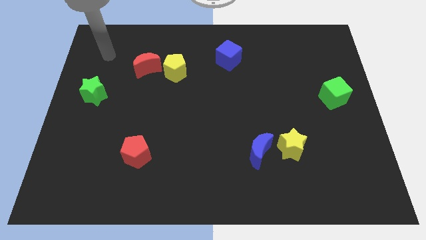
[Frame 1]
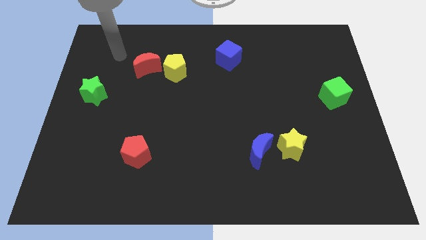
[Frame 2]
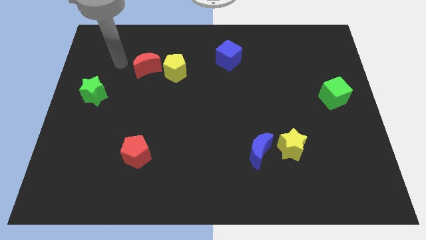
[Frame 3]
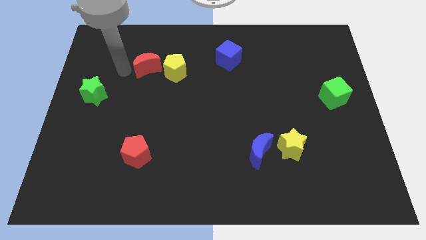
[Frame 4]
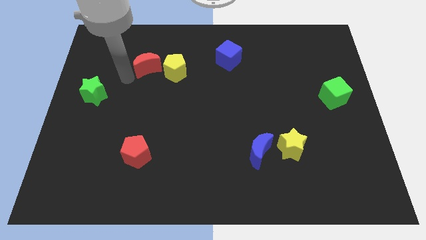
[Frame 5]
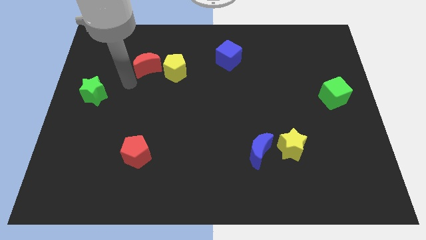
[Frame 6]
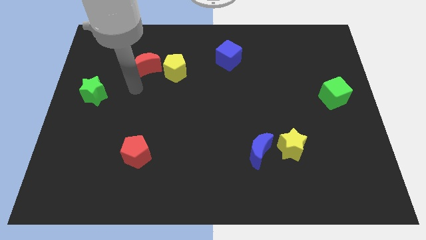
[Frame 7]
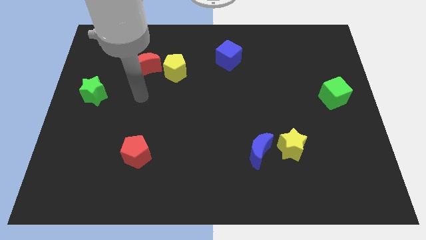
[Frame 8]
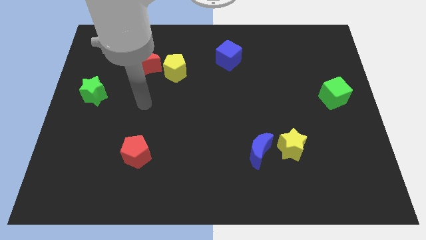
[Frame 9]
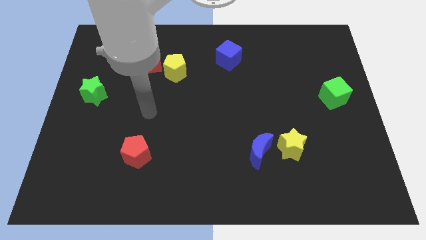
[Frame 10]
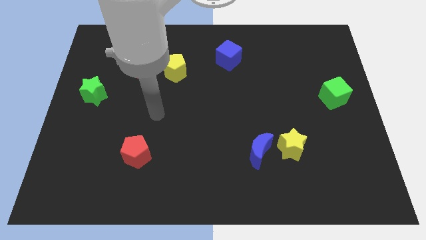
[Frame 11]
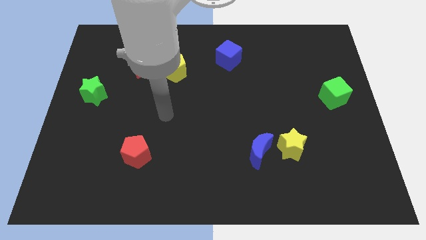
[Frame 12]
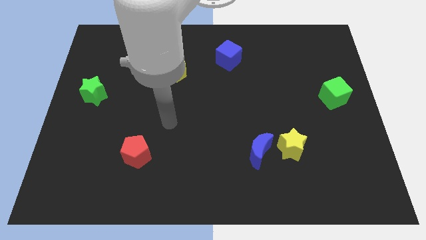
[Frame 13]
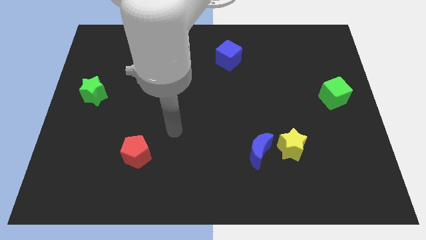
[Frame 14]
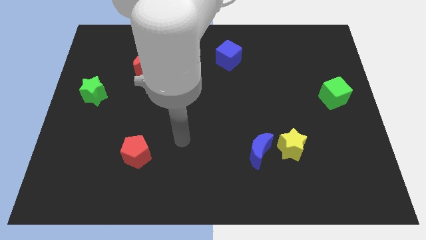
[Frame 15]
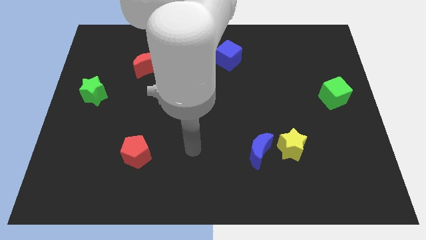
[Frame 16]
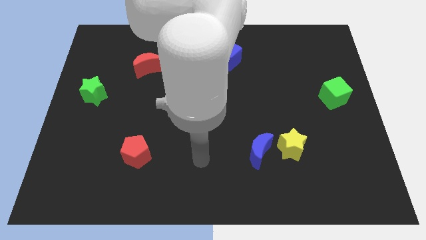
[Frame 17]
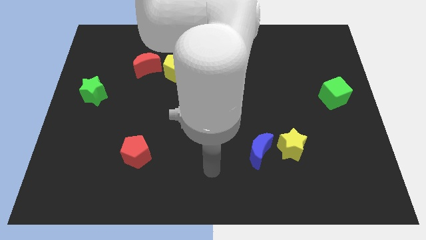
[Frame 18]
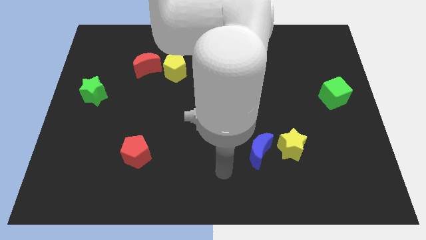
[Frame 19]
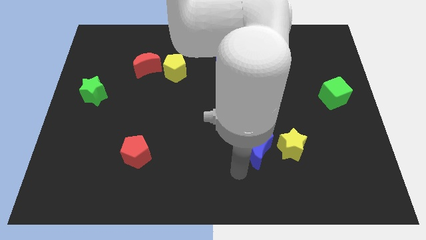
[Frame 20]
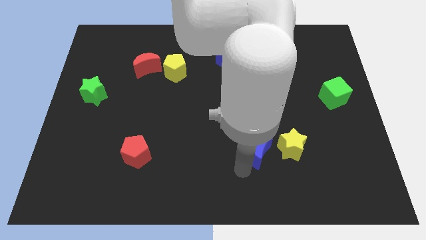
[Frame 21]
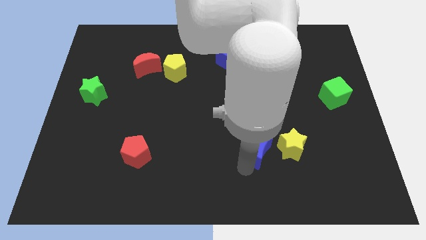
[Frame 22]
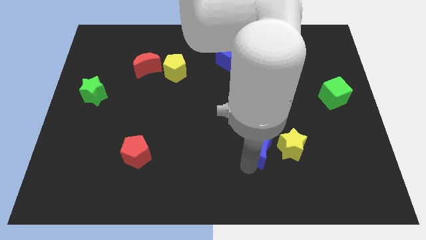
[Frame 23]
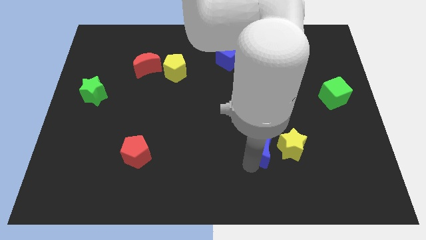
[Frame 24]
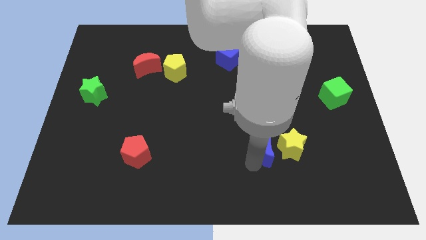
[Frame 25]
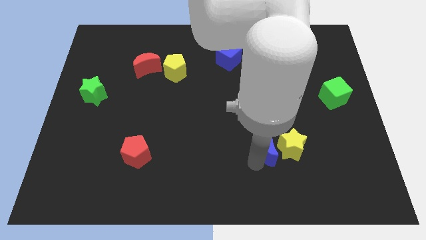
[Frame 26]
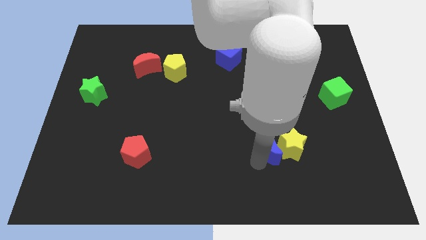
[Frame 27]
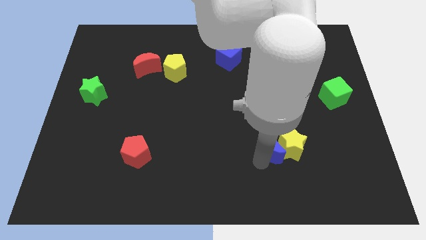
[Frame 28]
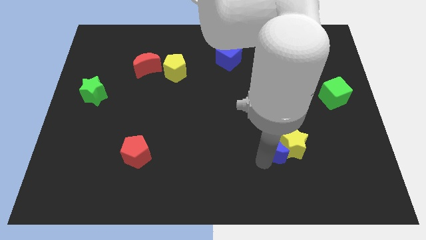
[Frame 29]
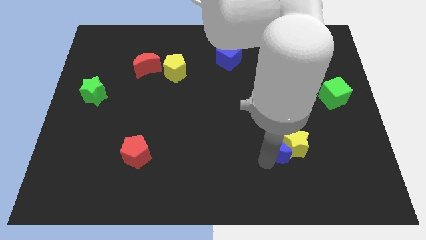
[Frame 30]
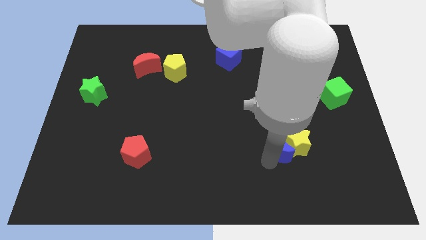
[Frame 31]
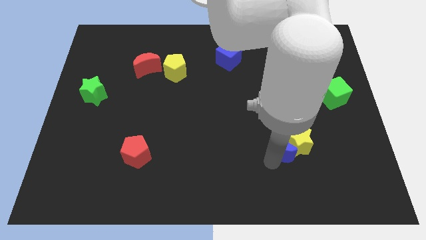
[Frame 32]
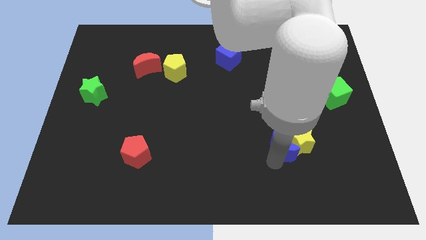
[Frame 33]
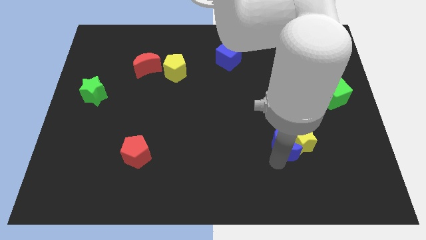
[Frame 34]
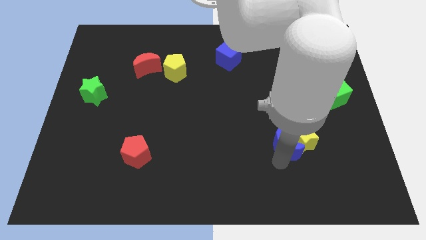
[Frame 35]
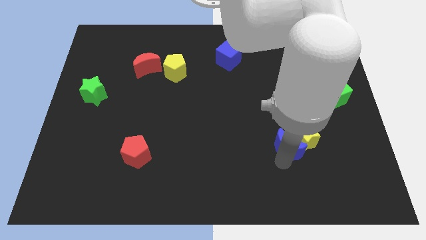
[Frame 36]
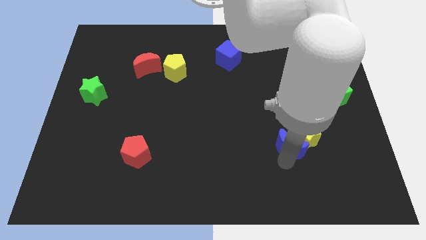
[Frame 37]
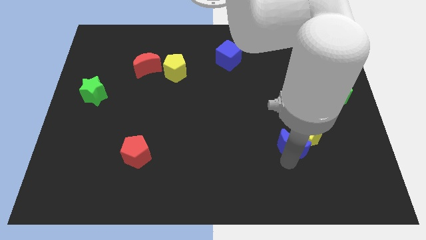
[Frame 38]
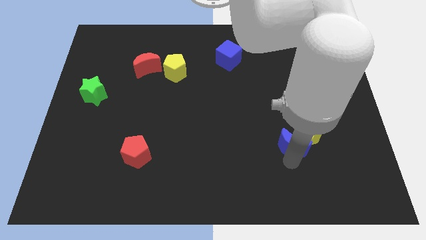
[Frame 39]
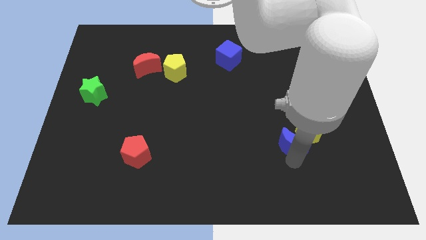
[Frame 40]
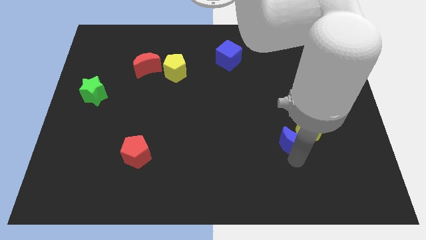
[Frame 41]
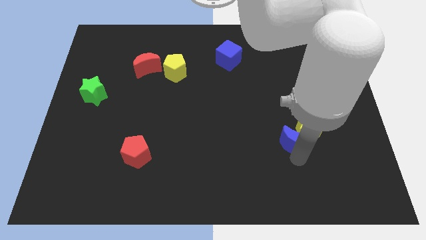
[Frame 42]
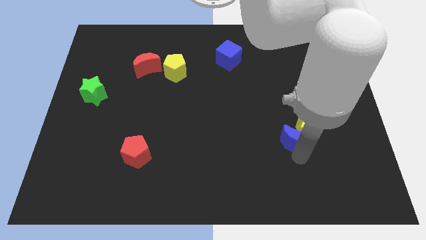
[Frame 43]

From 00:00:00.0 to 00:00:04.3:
push the blue moon up and to the right diagonally a little

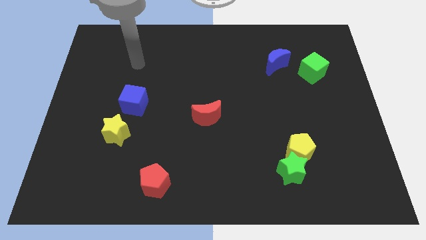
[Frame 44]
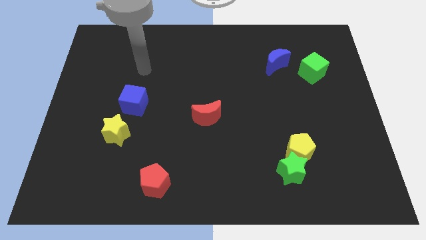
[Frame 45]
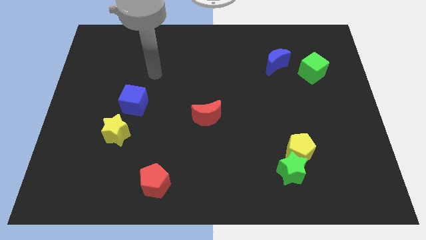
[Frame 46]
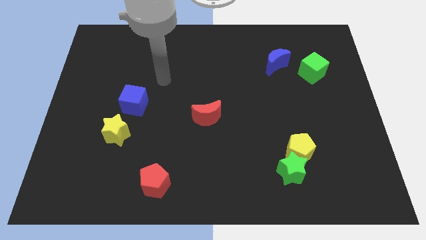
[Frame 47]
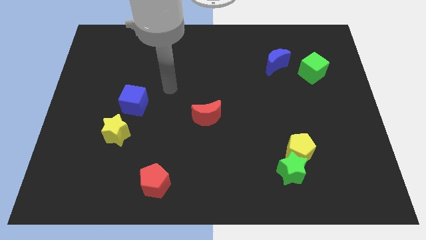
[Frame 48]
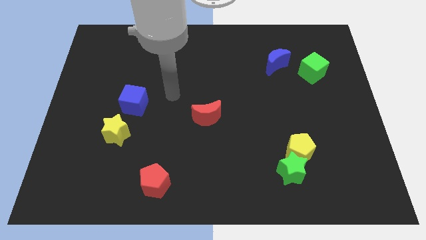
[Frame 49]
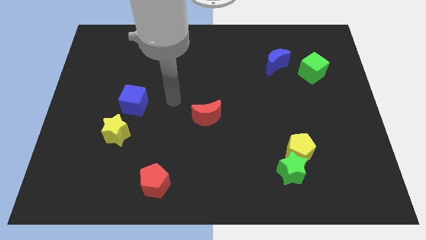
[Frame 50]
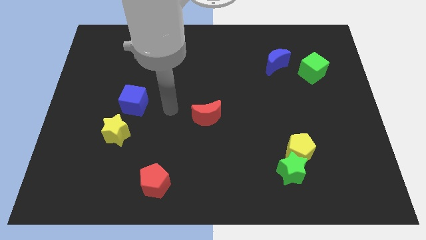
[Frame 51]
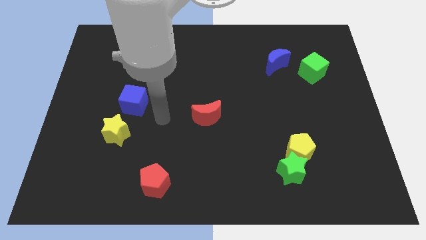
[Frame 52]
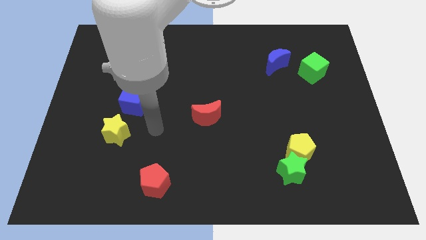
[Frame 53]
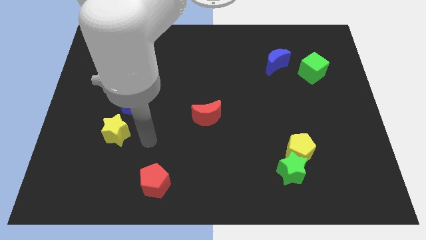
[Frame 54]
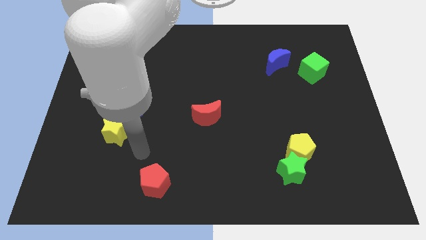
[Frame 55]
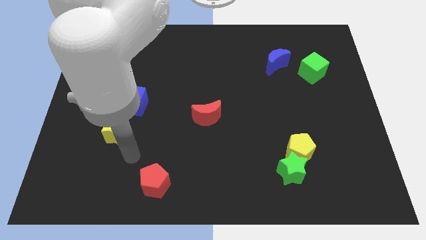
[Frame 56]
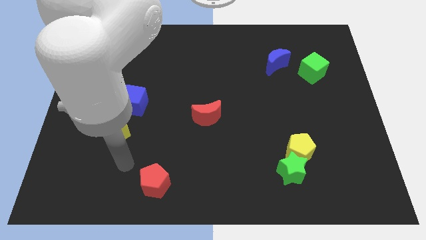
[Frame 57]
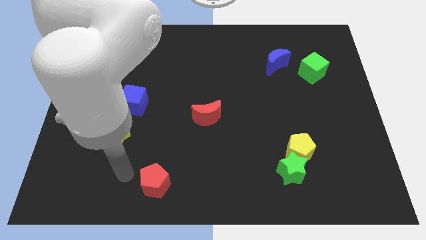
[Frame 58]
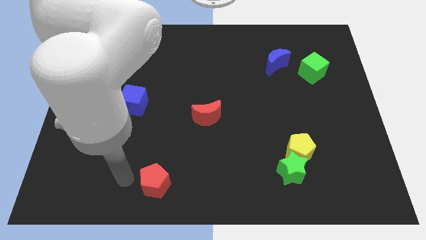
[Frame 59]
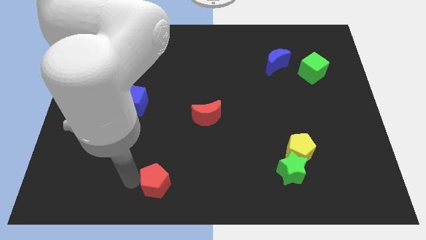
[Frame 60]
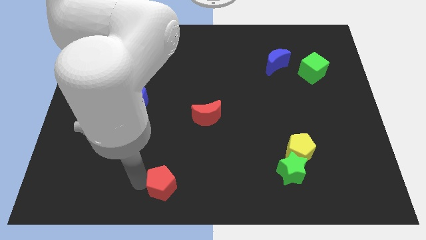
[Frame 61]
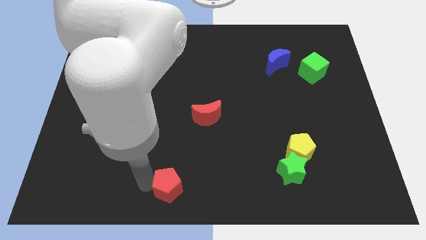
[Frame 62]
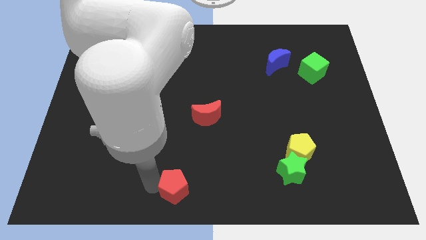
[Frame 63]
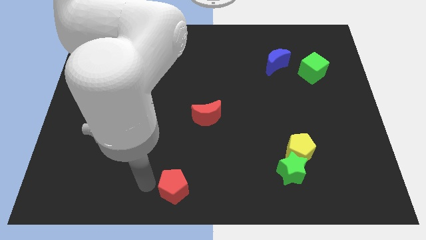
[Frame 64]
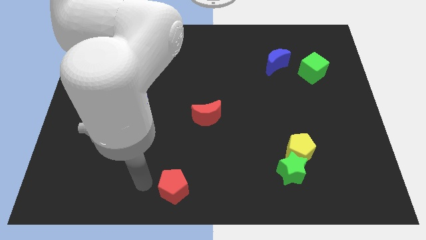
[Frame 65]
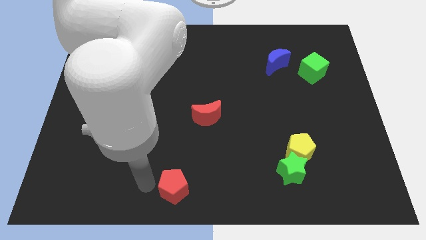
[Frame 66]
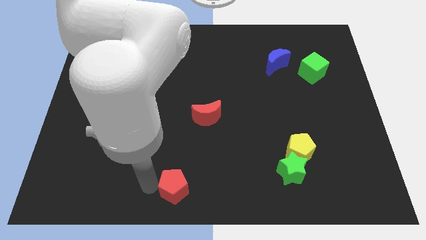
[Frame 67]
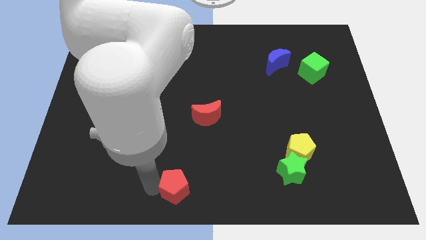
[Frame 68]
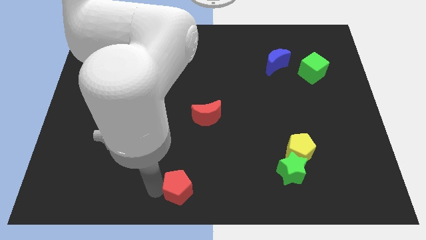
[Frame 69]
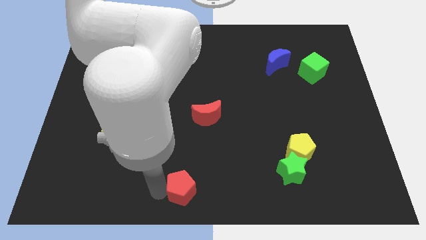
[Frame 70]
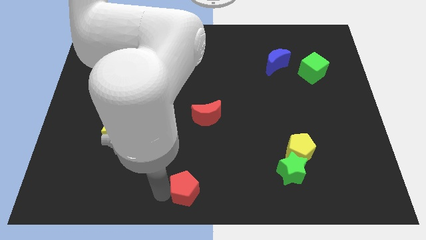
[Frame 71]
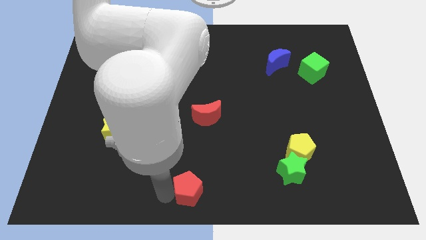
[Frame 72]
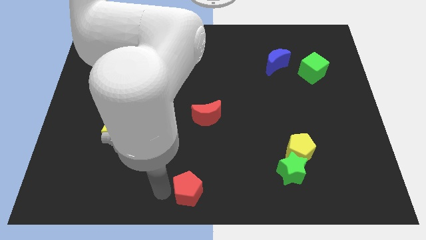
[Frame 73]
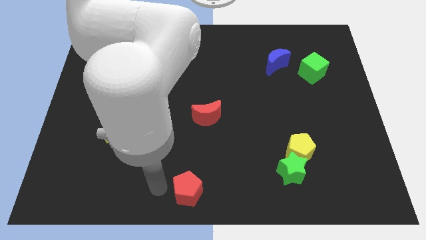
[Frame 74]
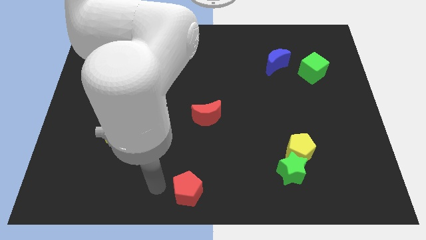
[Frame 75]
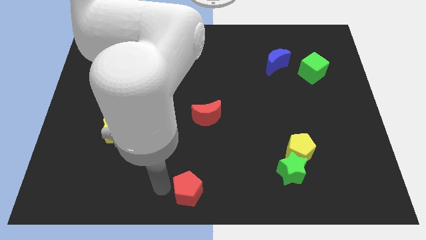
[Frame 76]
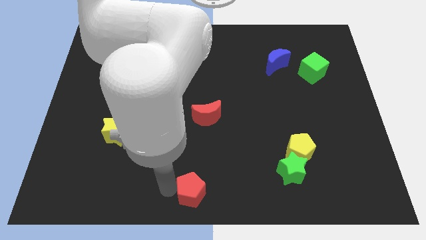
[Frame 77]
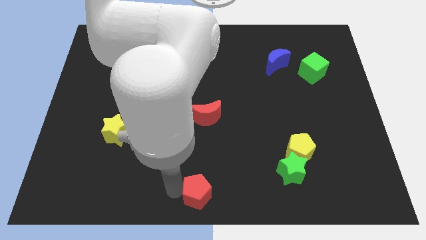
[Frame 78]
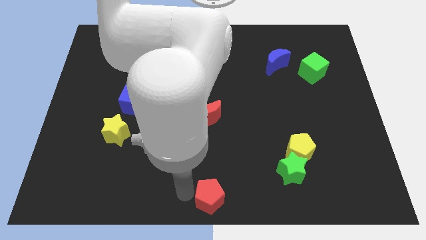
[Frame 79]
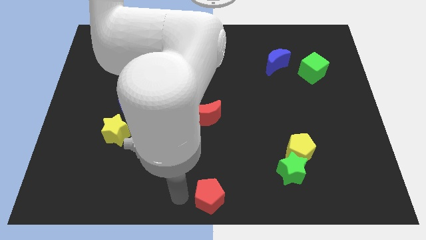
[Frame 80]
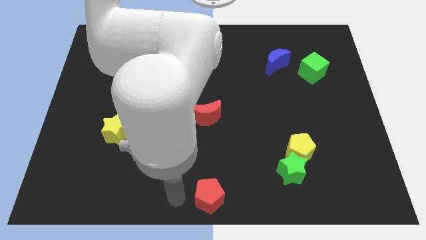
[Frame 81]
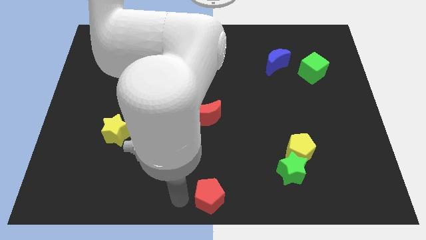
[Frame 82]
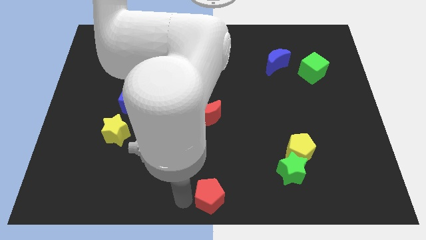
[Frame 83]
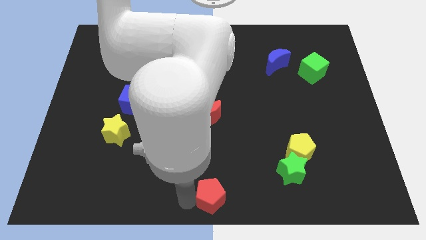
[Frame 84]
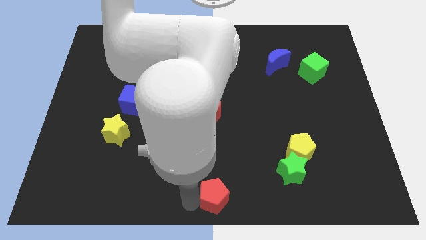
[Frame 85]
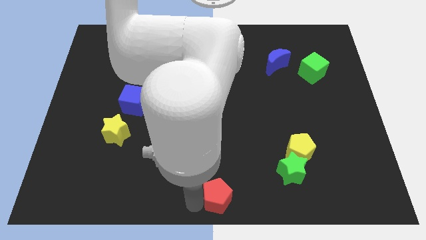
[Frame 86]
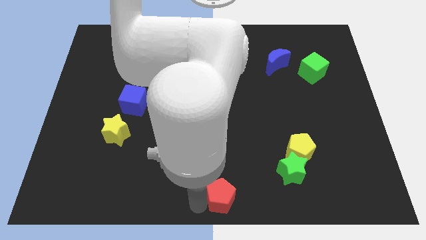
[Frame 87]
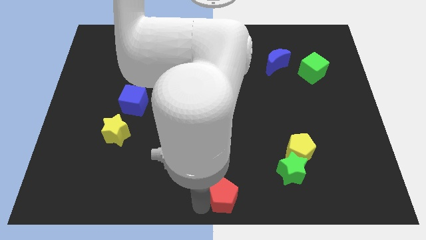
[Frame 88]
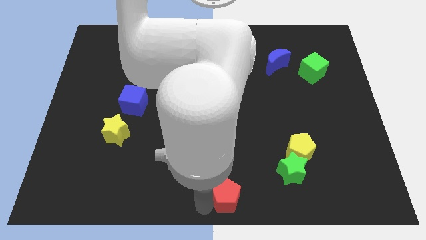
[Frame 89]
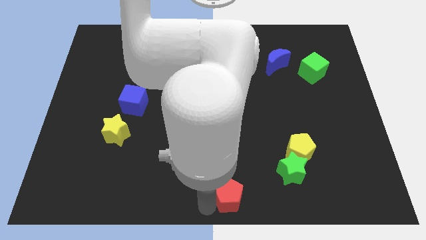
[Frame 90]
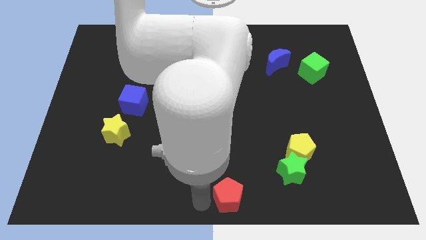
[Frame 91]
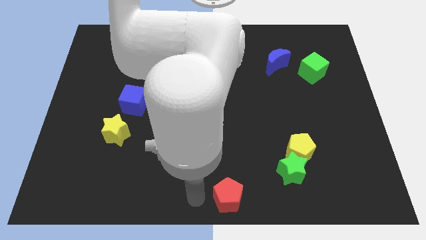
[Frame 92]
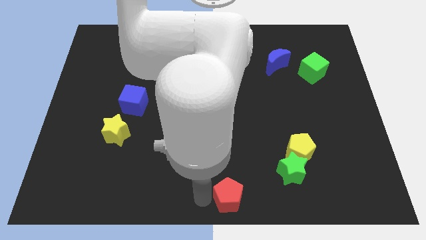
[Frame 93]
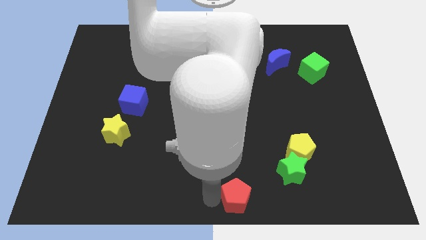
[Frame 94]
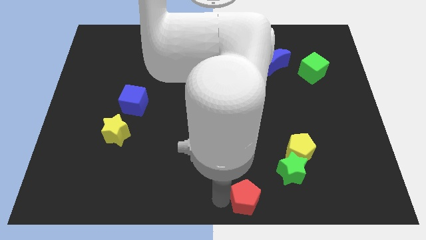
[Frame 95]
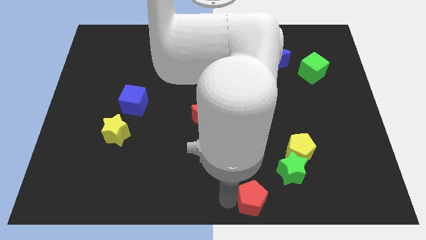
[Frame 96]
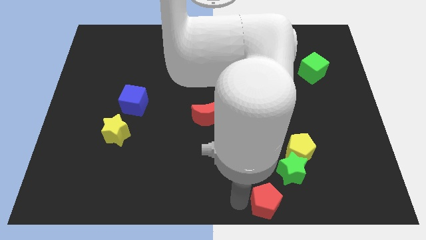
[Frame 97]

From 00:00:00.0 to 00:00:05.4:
push the red pentagon to the right
